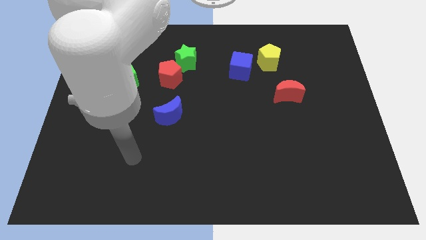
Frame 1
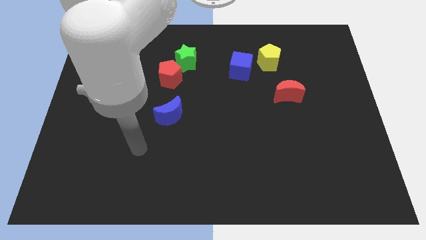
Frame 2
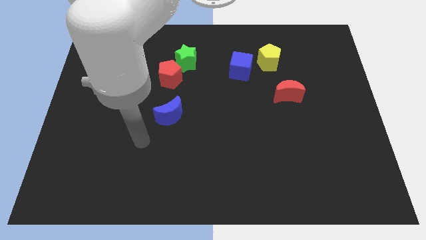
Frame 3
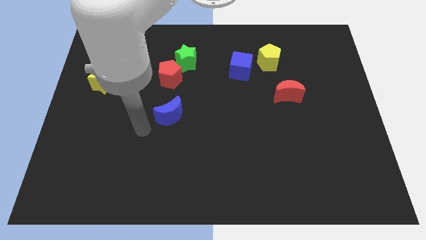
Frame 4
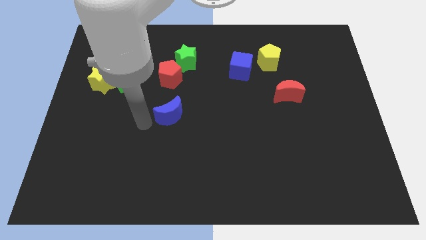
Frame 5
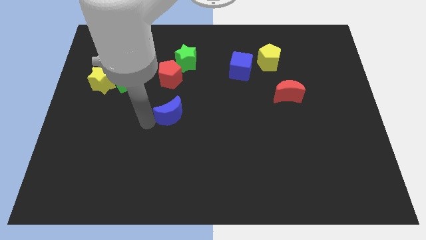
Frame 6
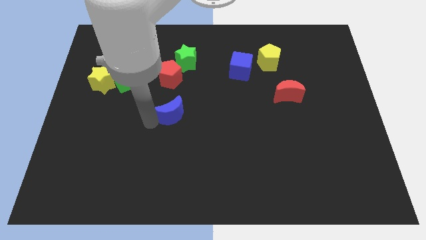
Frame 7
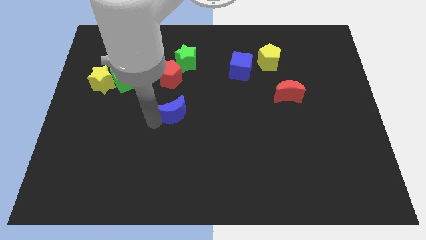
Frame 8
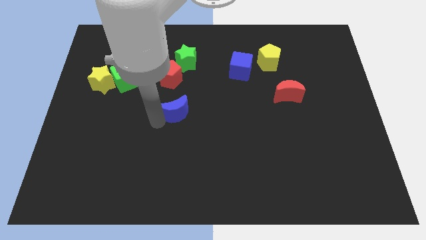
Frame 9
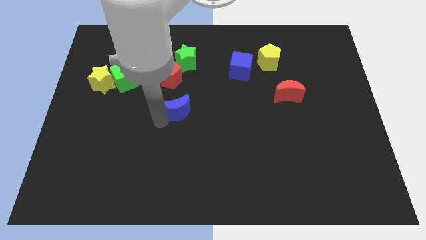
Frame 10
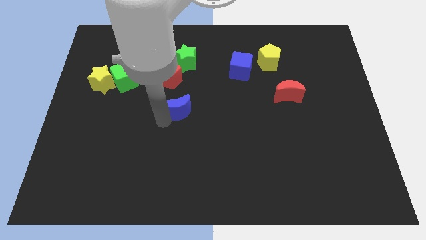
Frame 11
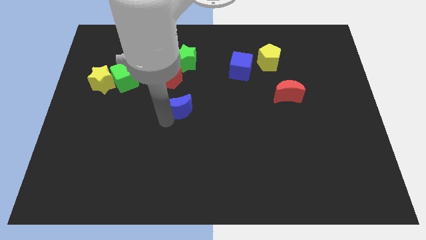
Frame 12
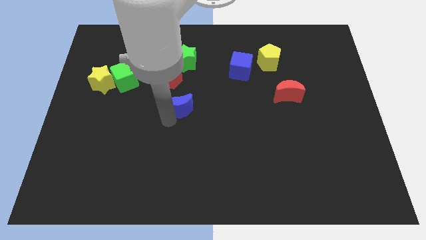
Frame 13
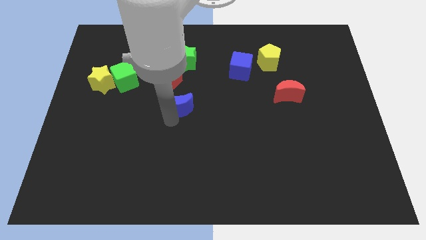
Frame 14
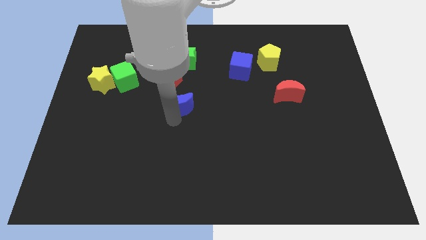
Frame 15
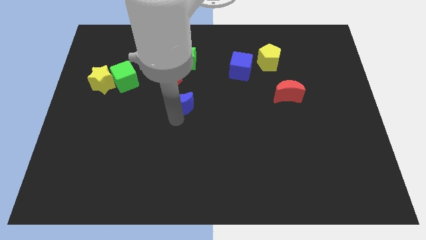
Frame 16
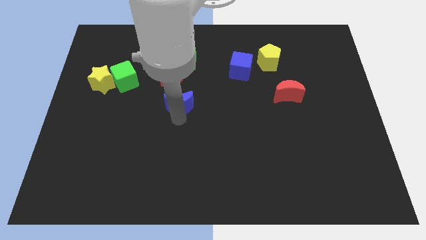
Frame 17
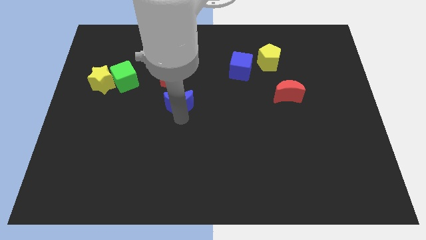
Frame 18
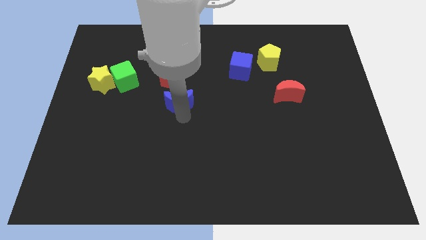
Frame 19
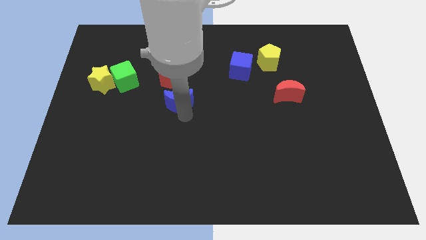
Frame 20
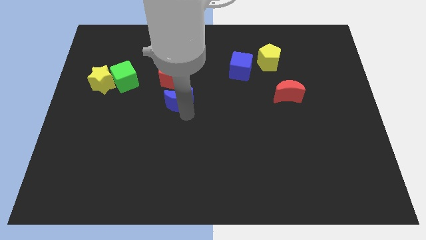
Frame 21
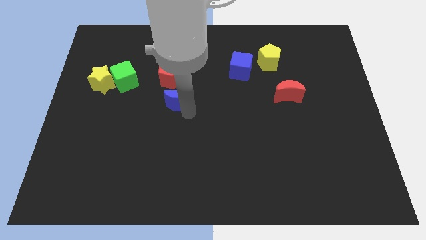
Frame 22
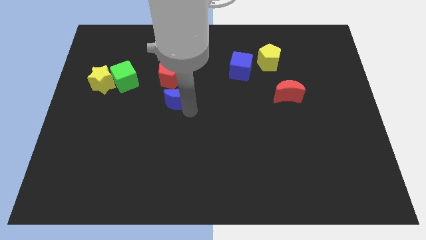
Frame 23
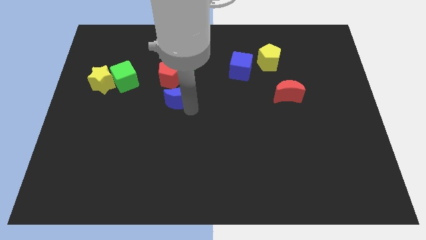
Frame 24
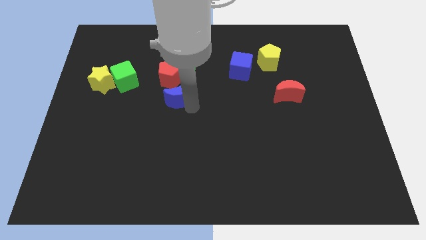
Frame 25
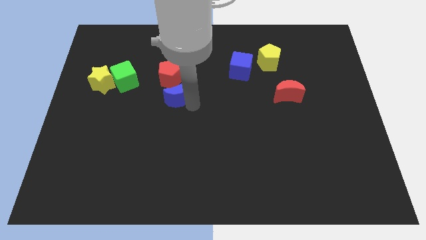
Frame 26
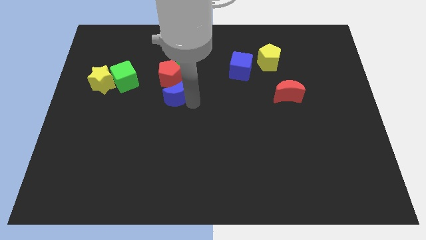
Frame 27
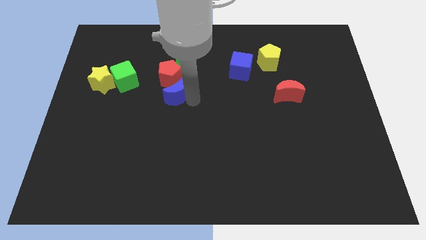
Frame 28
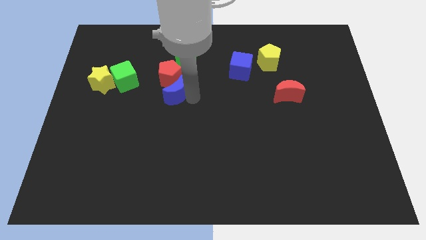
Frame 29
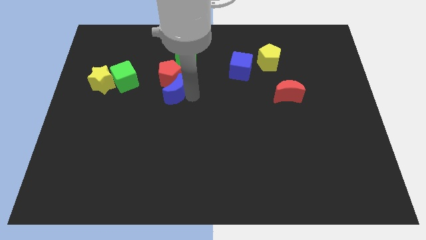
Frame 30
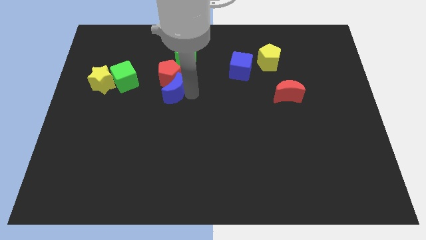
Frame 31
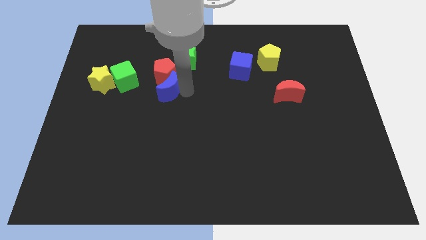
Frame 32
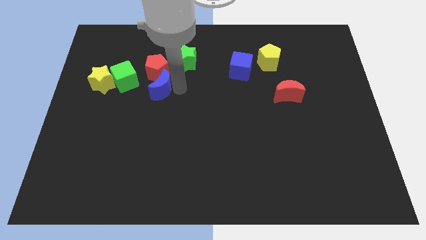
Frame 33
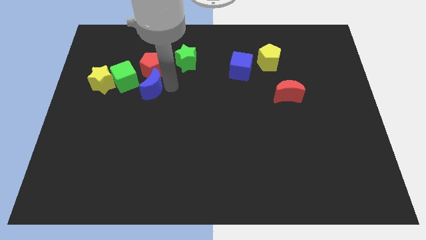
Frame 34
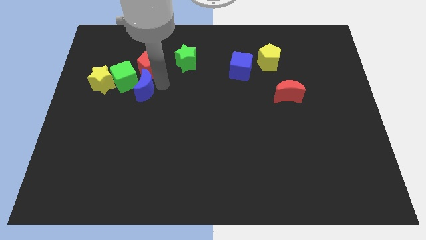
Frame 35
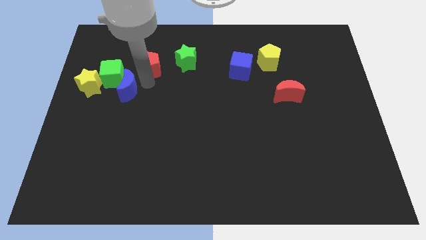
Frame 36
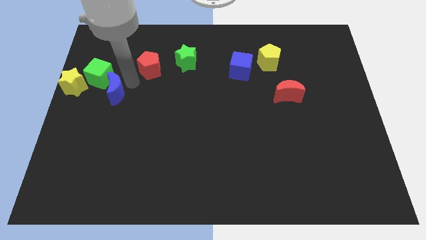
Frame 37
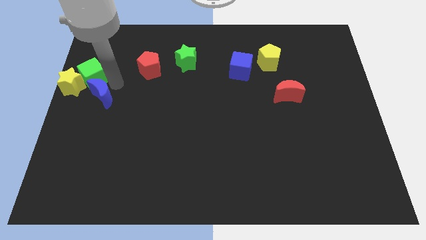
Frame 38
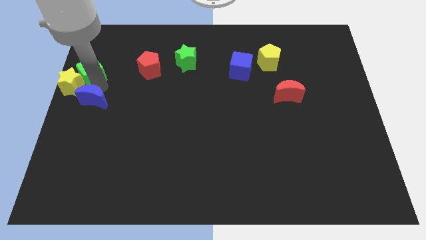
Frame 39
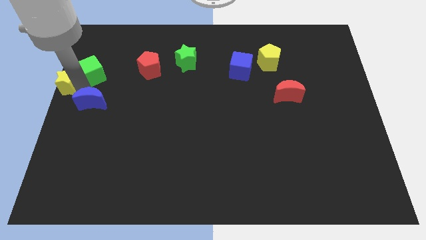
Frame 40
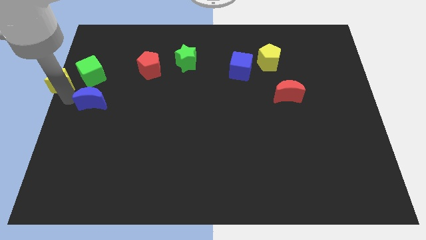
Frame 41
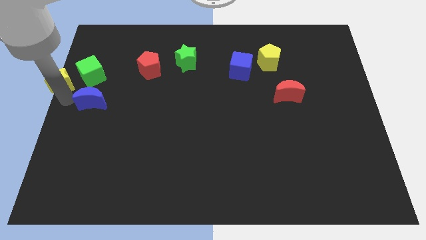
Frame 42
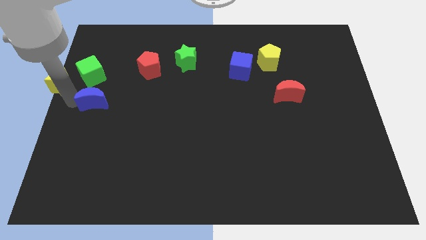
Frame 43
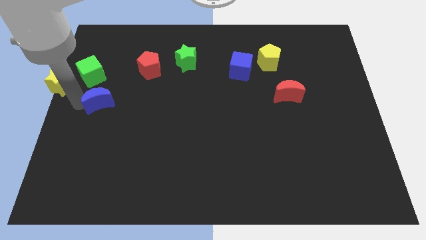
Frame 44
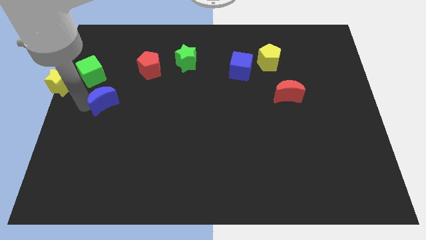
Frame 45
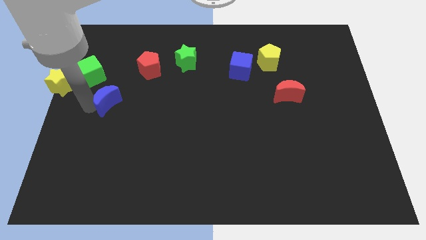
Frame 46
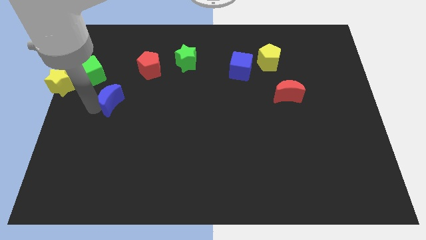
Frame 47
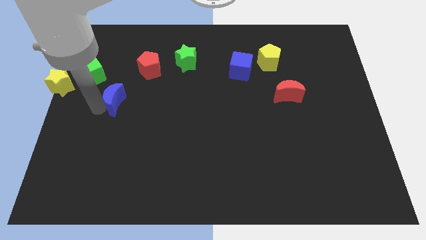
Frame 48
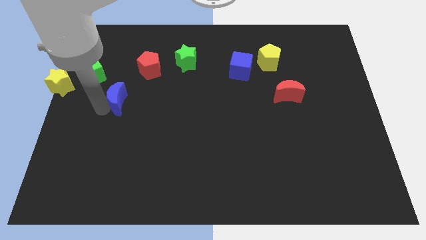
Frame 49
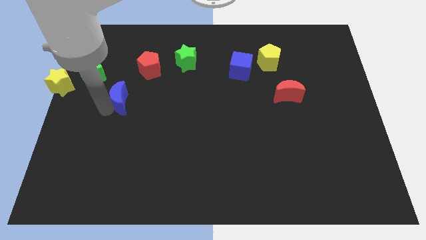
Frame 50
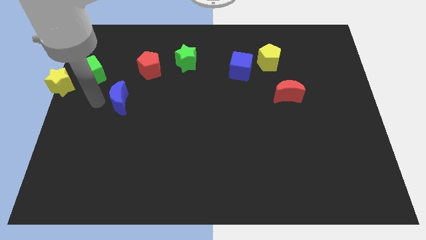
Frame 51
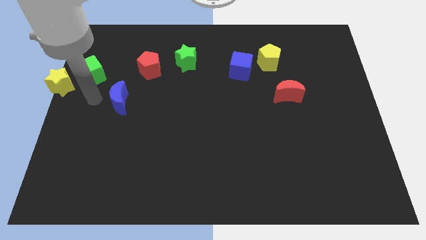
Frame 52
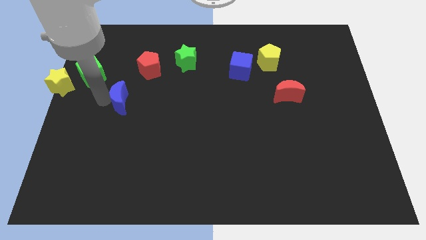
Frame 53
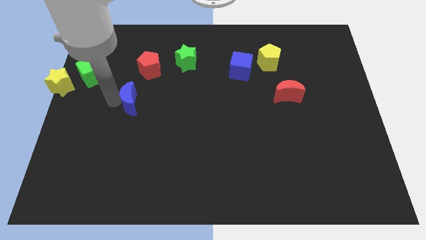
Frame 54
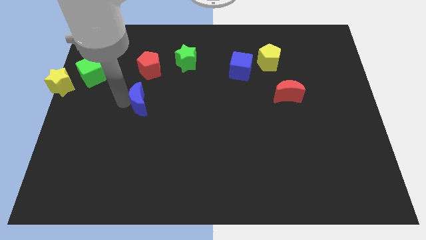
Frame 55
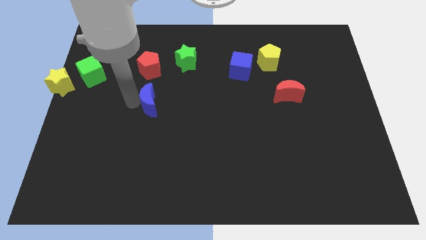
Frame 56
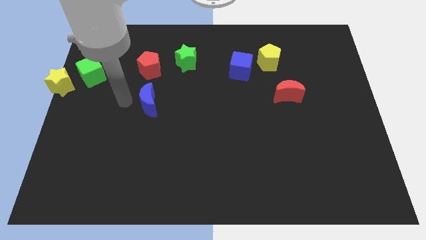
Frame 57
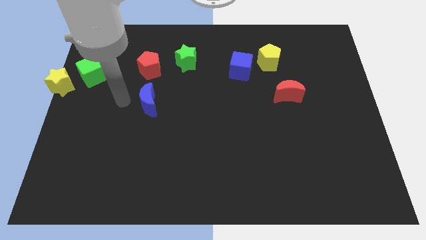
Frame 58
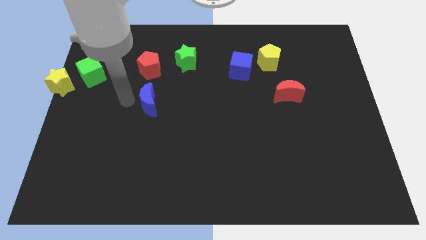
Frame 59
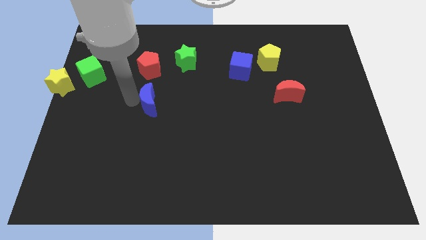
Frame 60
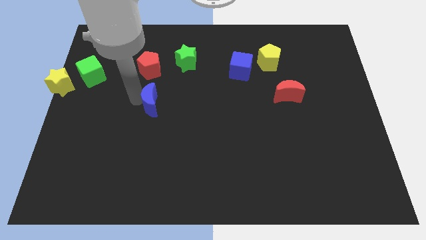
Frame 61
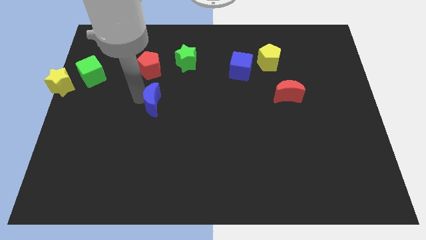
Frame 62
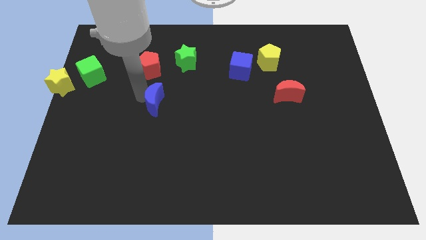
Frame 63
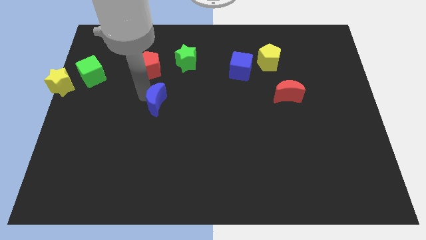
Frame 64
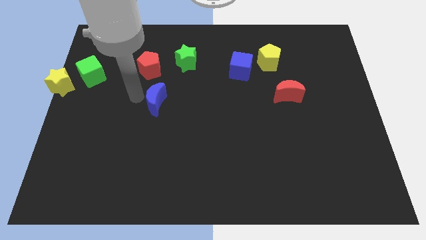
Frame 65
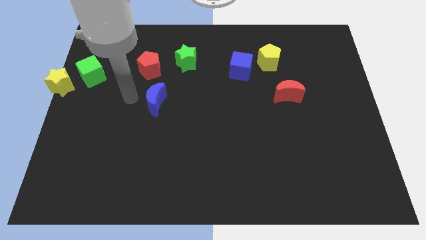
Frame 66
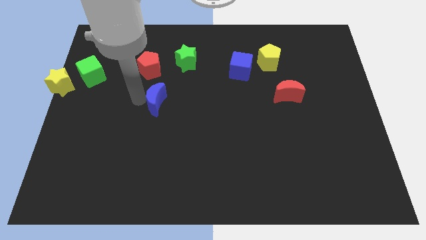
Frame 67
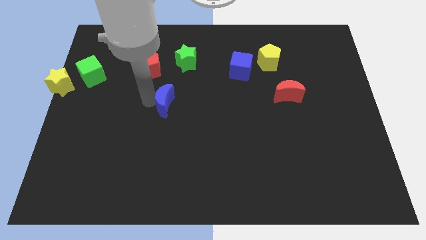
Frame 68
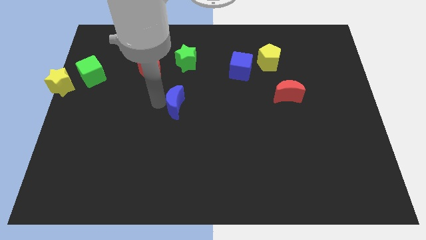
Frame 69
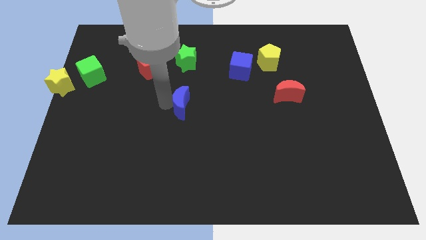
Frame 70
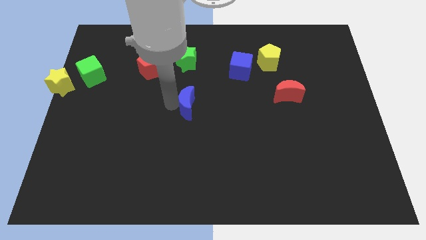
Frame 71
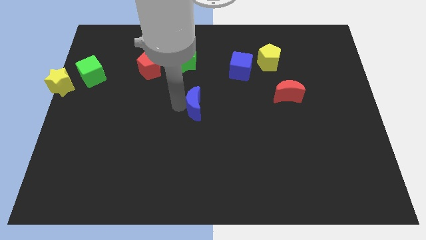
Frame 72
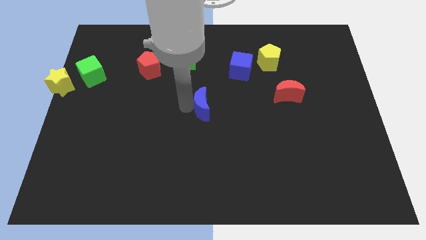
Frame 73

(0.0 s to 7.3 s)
push the blue moon slightly right

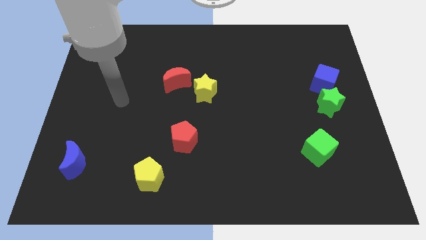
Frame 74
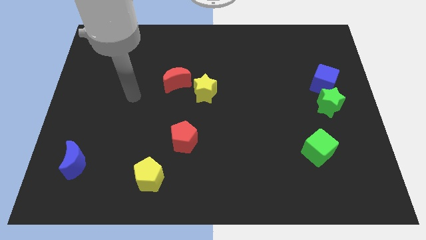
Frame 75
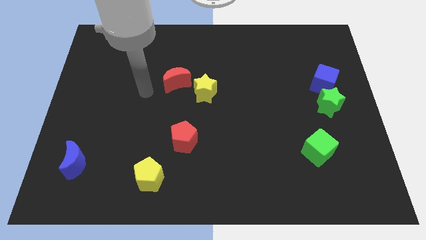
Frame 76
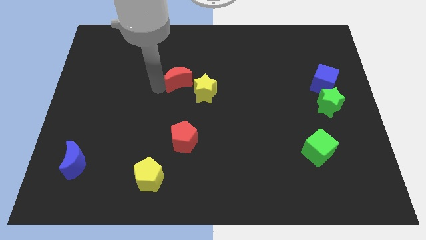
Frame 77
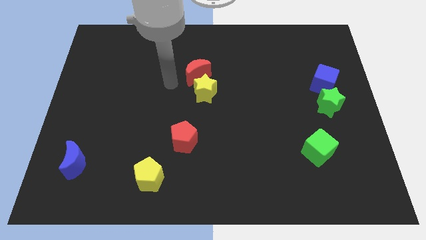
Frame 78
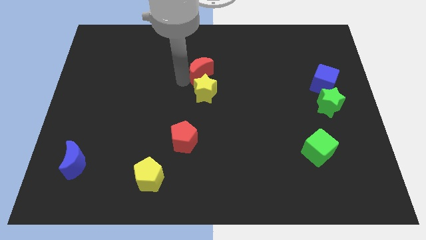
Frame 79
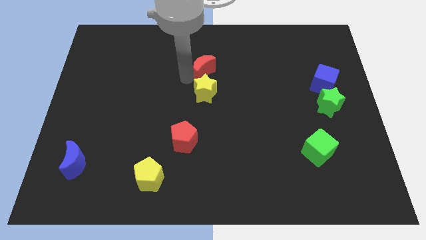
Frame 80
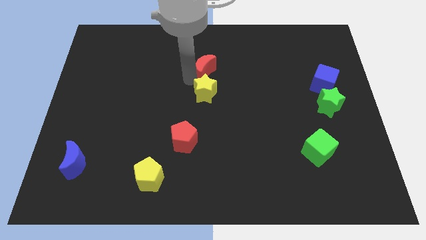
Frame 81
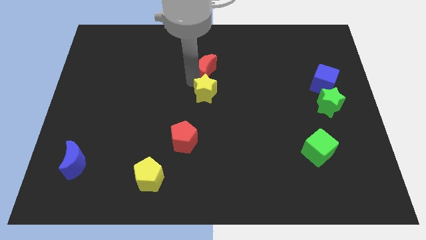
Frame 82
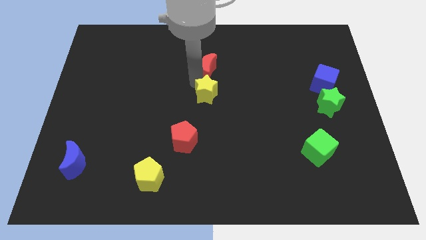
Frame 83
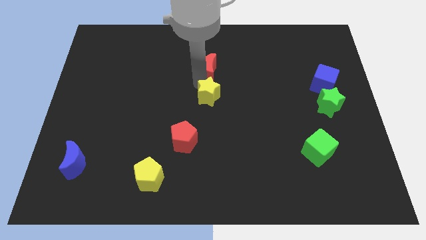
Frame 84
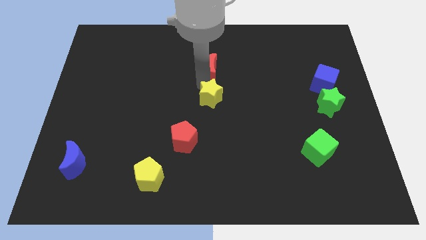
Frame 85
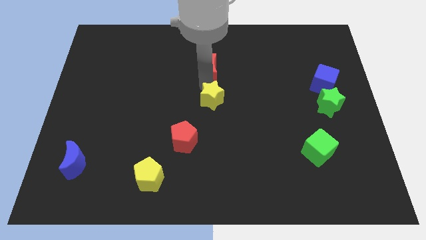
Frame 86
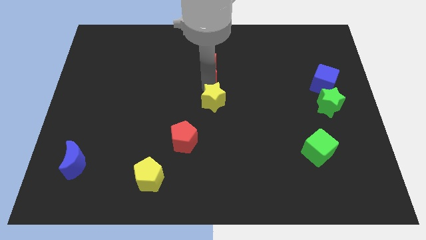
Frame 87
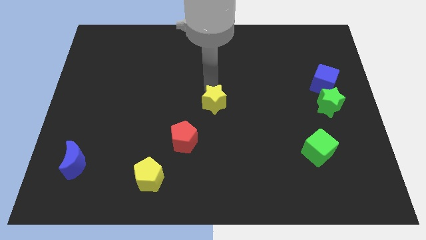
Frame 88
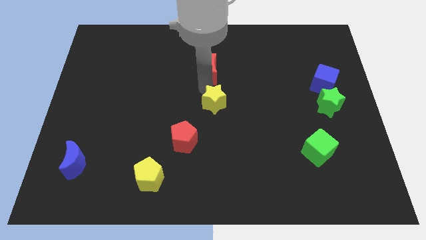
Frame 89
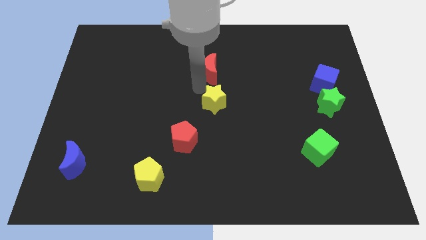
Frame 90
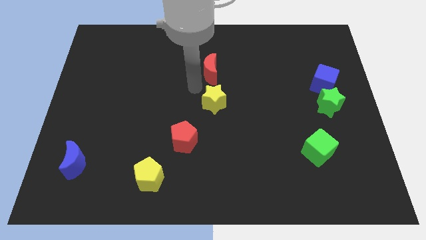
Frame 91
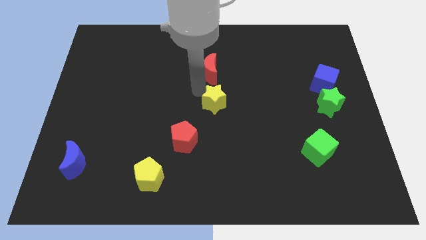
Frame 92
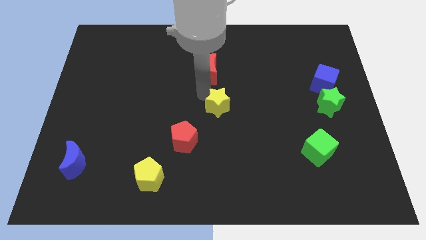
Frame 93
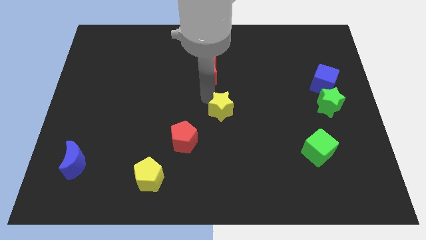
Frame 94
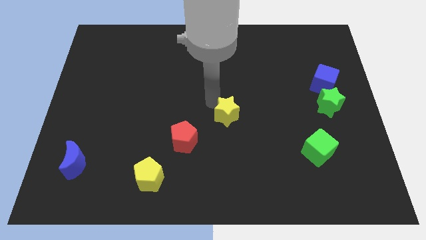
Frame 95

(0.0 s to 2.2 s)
slightly push the yellow star down and then right
